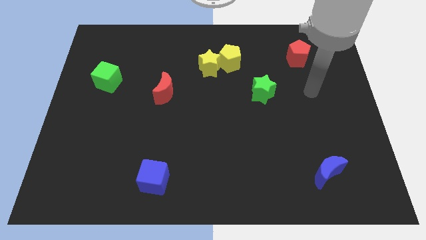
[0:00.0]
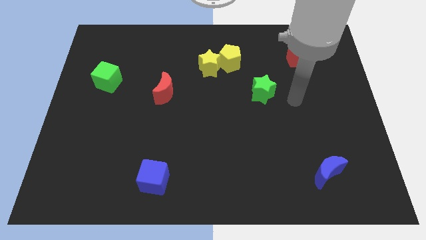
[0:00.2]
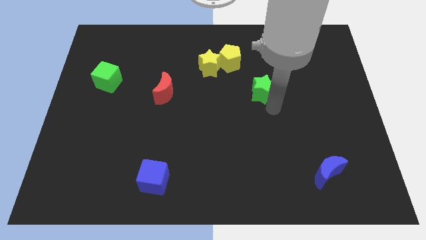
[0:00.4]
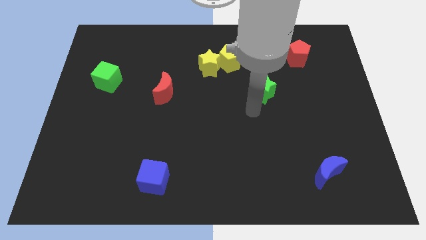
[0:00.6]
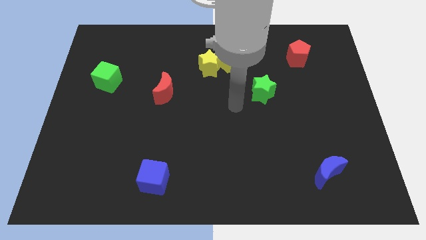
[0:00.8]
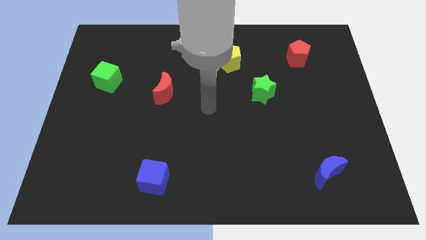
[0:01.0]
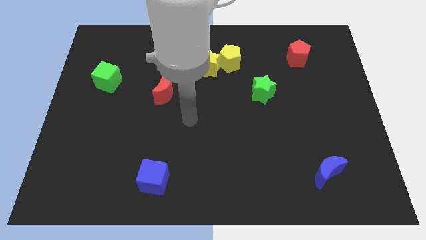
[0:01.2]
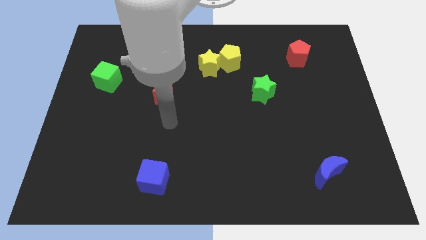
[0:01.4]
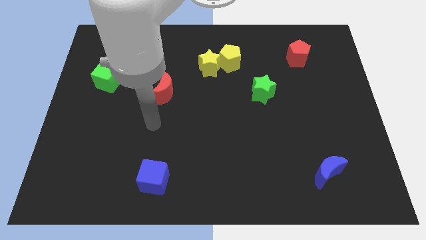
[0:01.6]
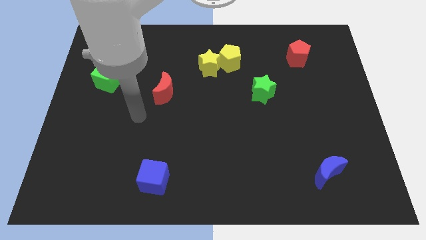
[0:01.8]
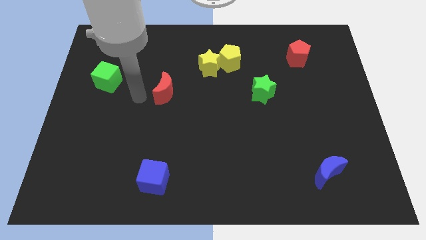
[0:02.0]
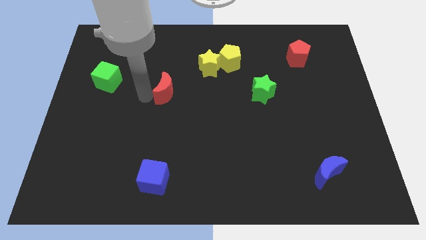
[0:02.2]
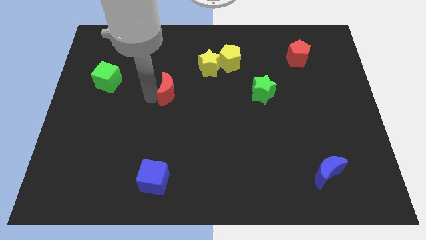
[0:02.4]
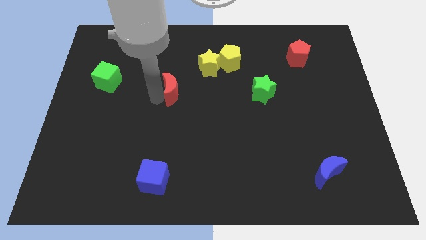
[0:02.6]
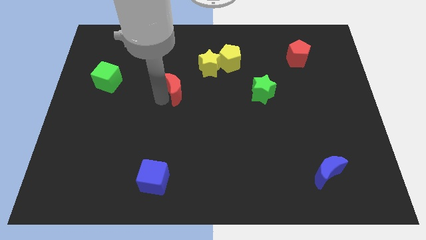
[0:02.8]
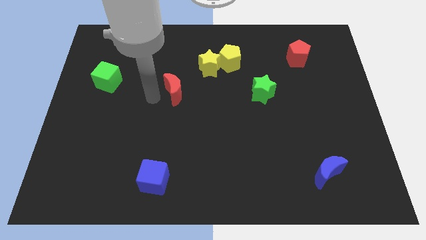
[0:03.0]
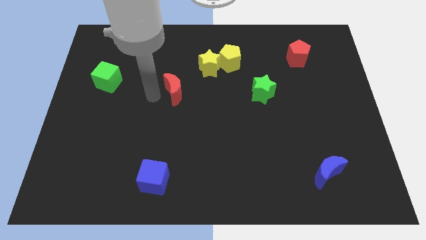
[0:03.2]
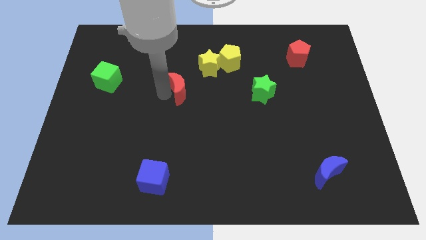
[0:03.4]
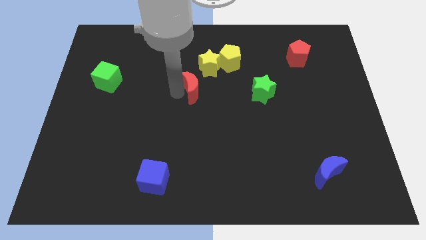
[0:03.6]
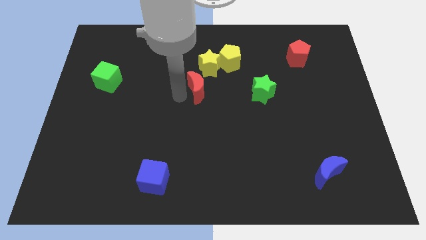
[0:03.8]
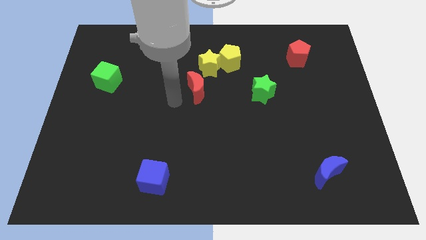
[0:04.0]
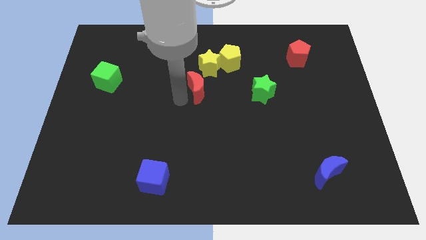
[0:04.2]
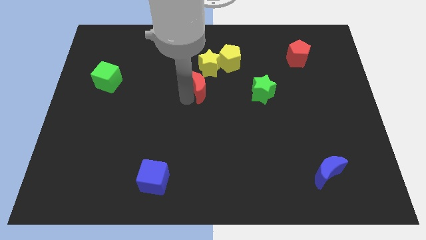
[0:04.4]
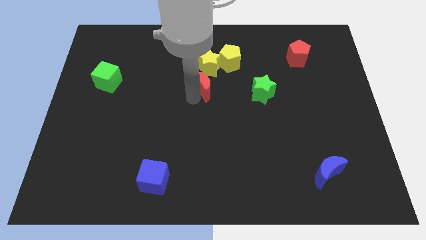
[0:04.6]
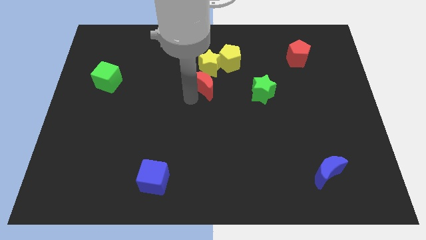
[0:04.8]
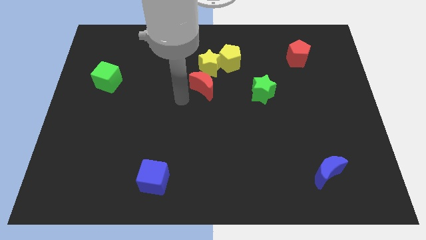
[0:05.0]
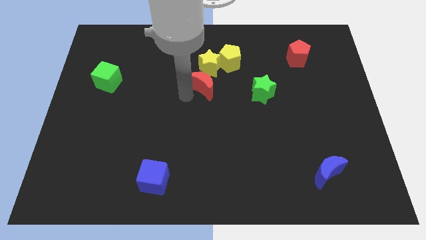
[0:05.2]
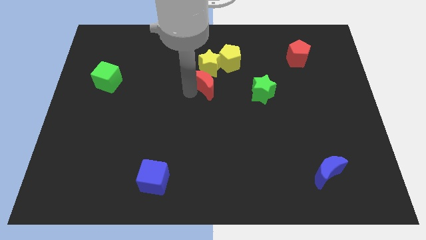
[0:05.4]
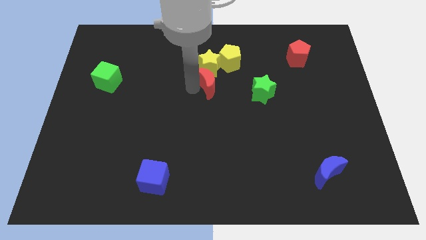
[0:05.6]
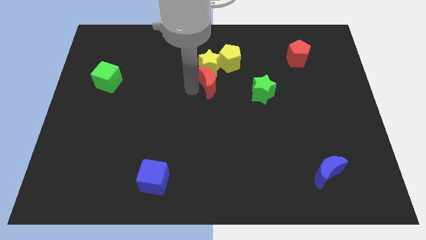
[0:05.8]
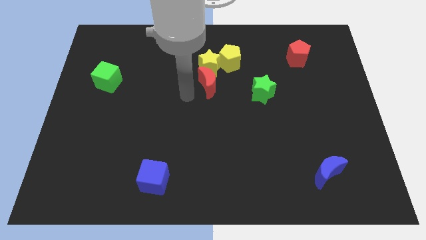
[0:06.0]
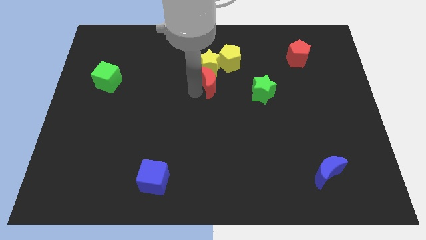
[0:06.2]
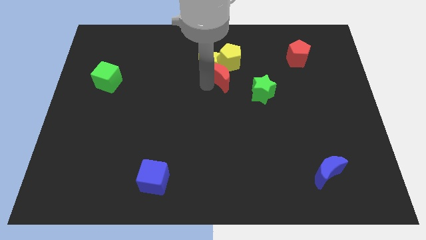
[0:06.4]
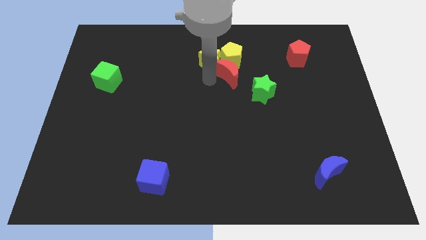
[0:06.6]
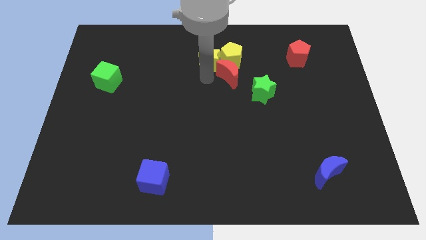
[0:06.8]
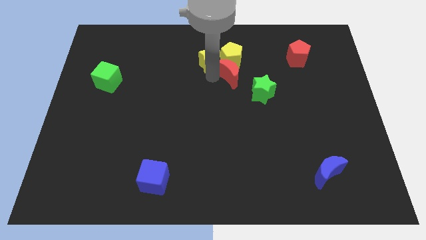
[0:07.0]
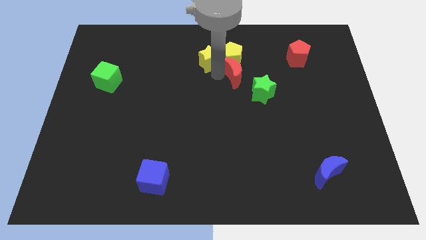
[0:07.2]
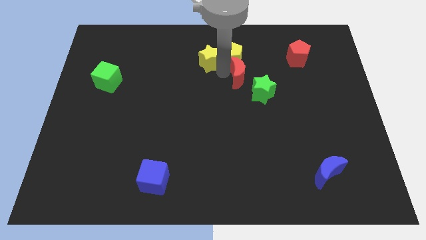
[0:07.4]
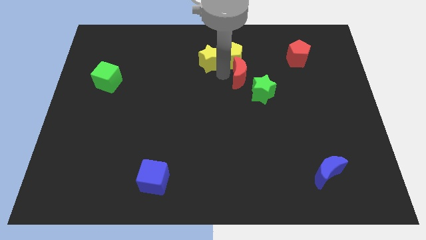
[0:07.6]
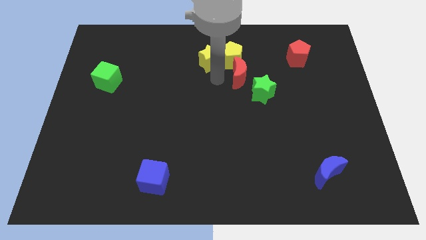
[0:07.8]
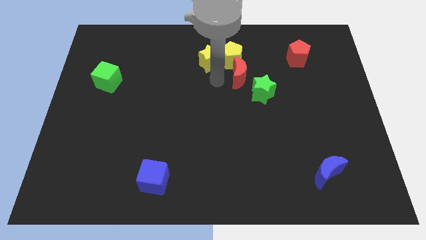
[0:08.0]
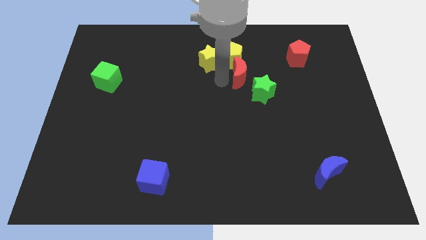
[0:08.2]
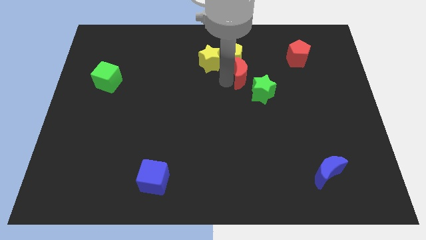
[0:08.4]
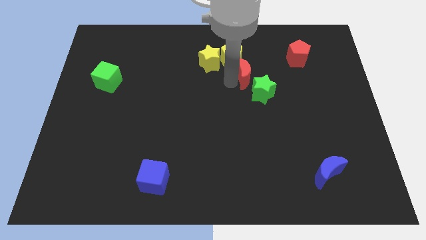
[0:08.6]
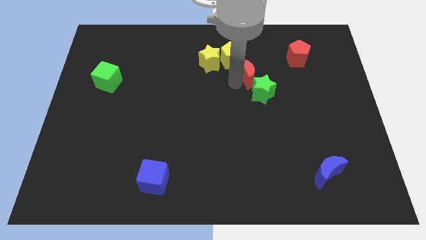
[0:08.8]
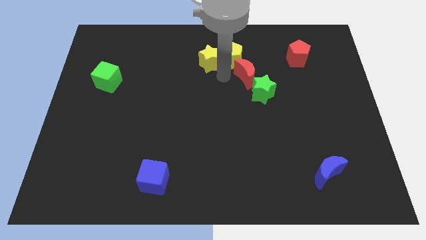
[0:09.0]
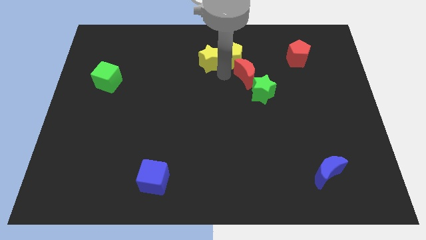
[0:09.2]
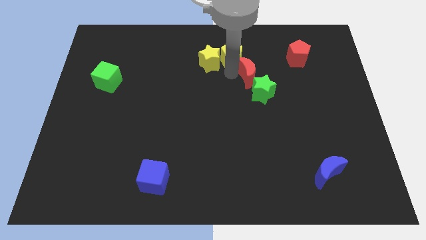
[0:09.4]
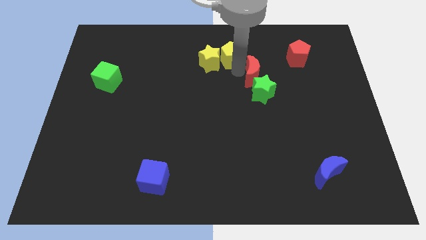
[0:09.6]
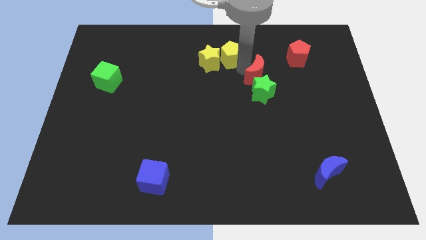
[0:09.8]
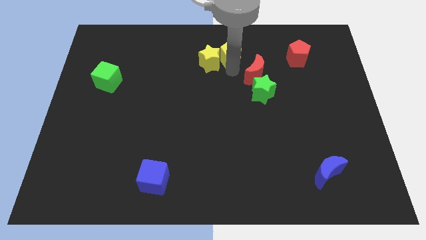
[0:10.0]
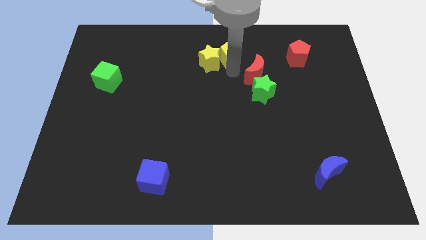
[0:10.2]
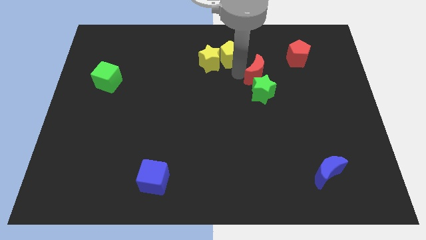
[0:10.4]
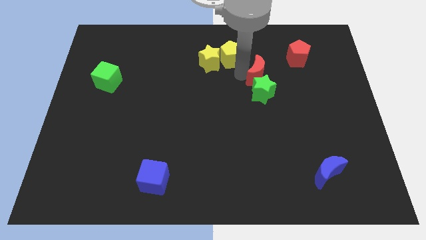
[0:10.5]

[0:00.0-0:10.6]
put the red moon diagonally up and to the right of the green star

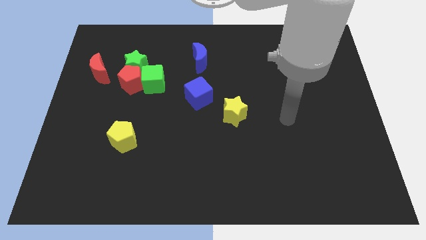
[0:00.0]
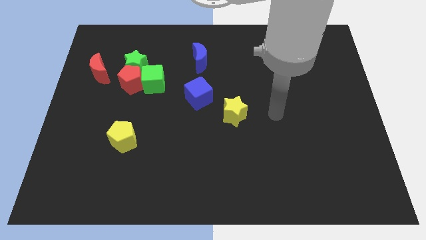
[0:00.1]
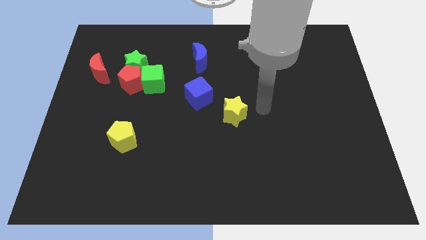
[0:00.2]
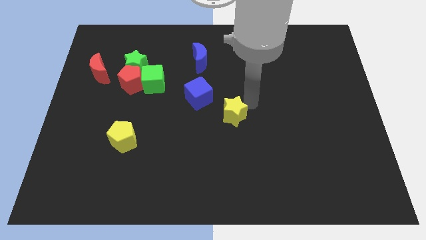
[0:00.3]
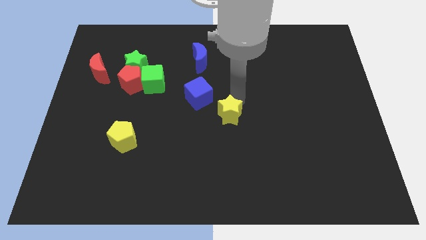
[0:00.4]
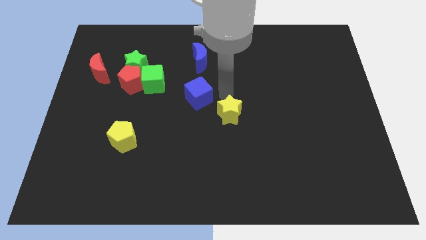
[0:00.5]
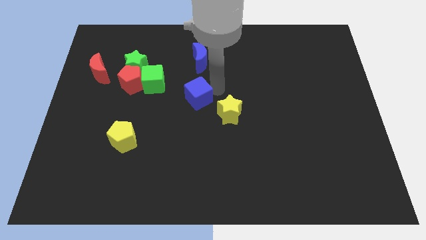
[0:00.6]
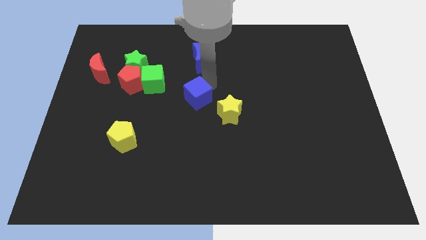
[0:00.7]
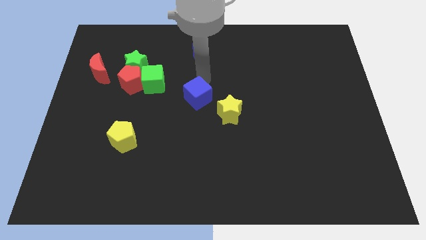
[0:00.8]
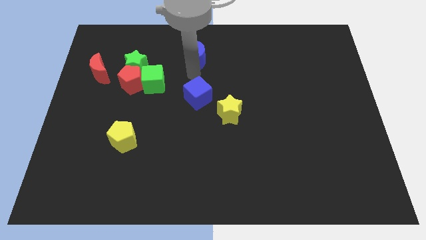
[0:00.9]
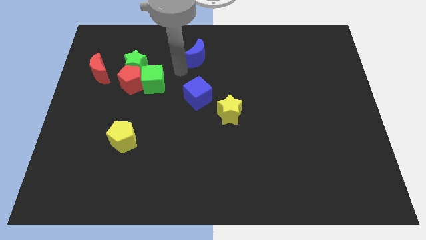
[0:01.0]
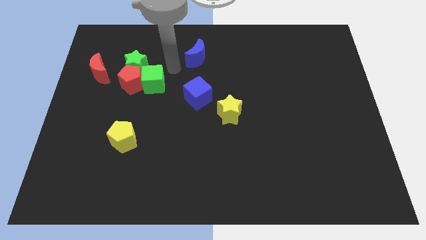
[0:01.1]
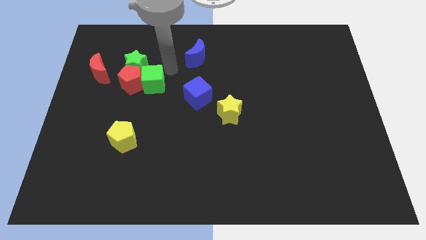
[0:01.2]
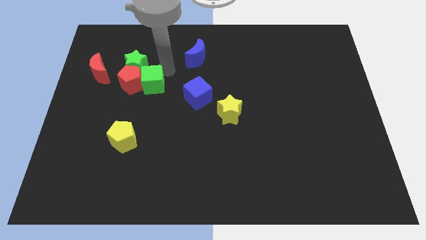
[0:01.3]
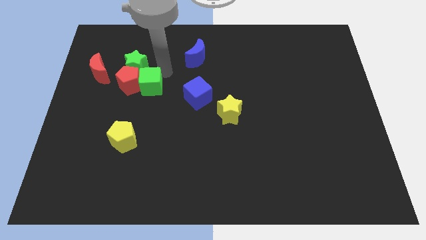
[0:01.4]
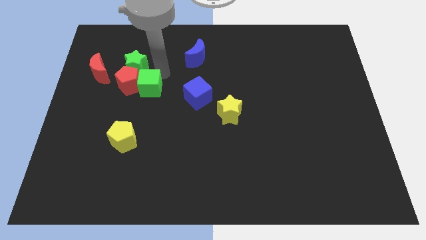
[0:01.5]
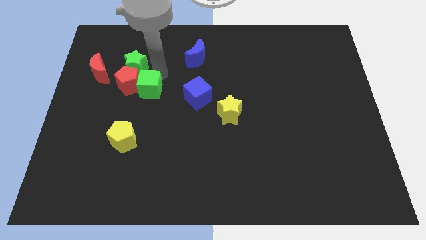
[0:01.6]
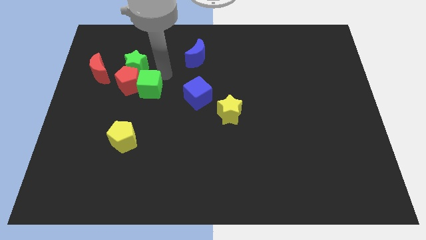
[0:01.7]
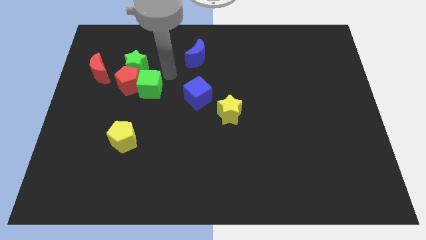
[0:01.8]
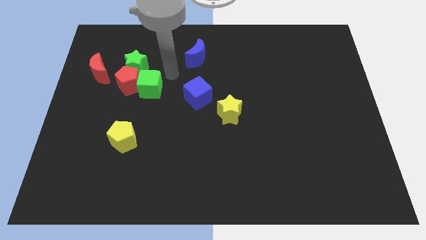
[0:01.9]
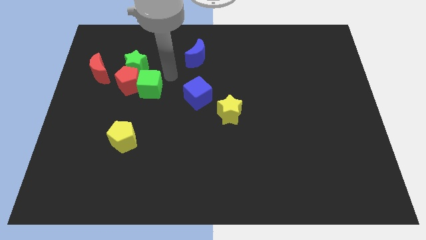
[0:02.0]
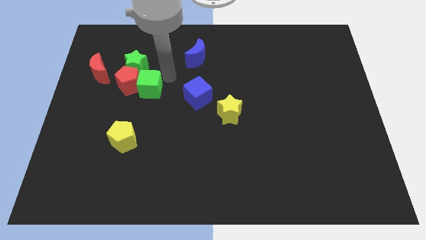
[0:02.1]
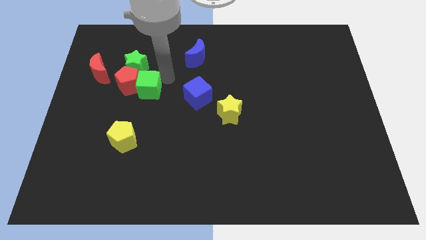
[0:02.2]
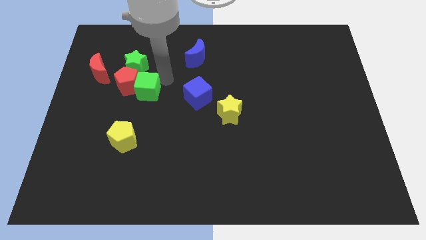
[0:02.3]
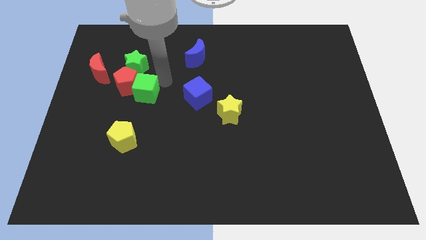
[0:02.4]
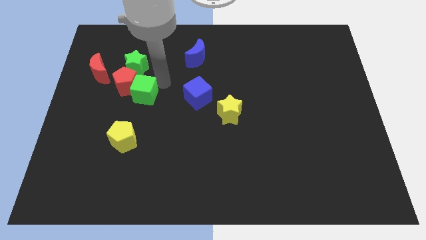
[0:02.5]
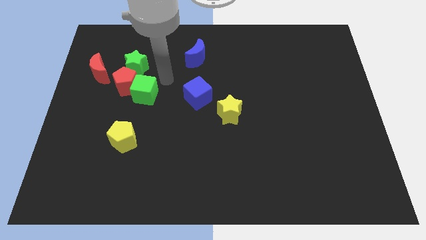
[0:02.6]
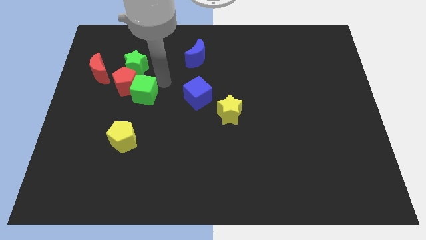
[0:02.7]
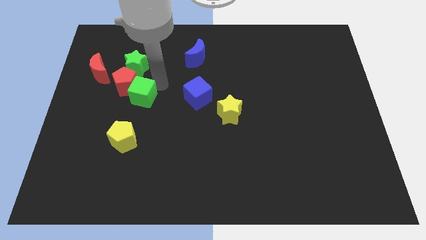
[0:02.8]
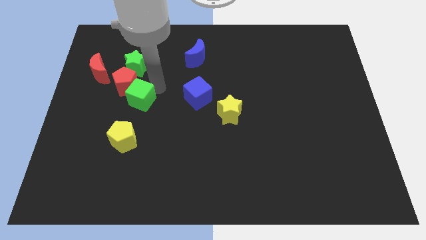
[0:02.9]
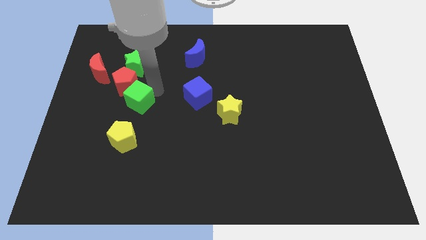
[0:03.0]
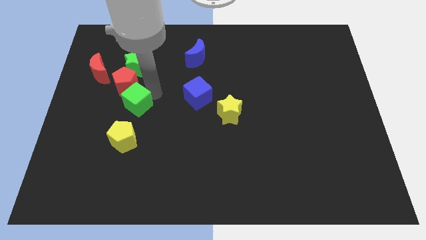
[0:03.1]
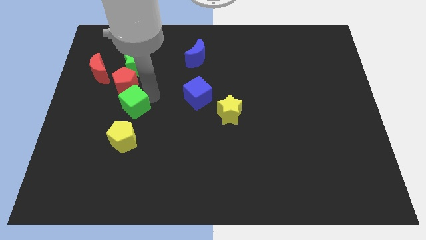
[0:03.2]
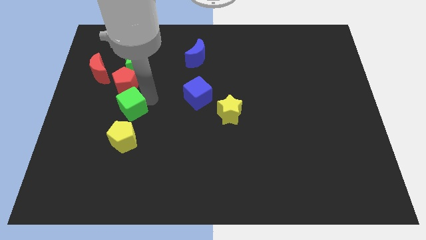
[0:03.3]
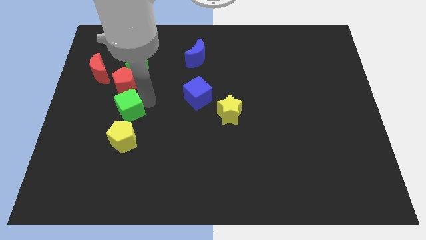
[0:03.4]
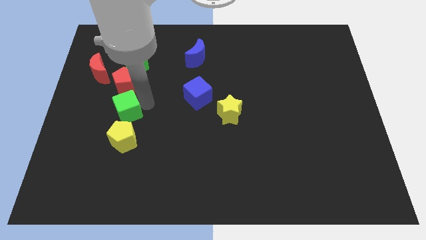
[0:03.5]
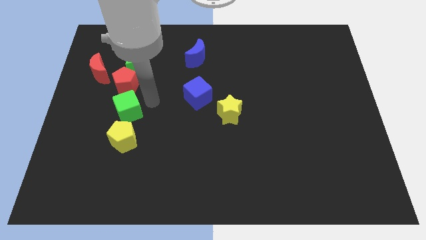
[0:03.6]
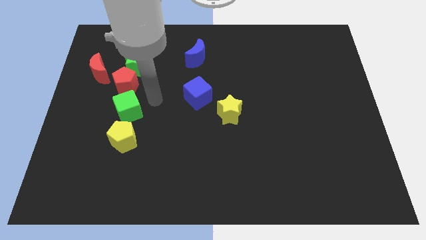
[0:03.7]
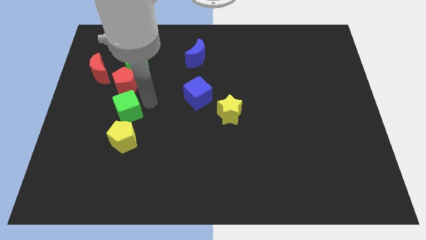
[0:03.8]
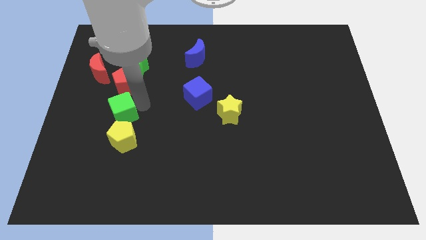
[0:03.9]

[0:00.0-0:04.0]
put the green cube to the top left side of the yellow pentagon
